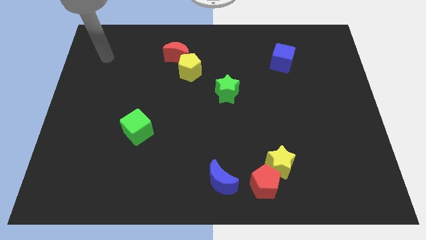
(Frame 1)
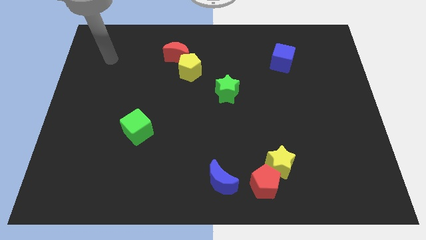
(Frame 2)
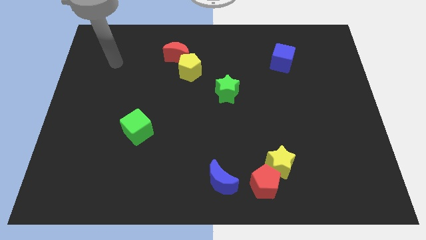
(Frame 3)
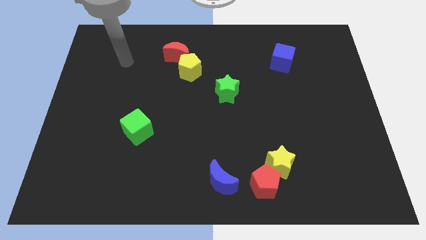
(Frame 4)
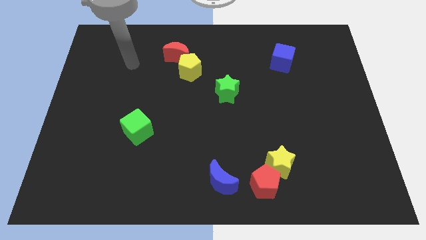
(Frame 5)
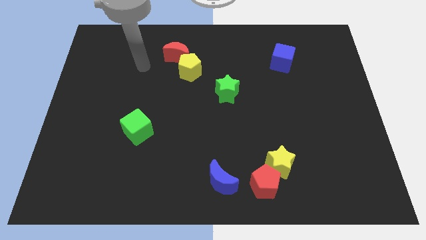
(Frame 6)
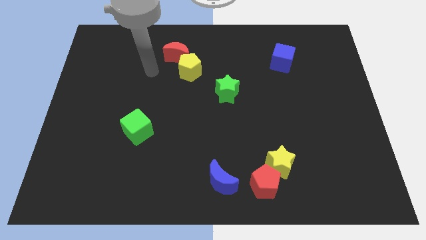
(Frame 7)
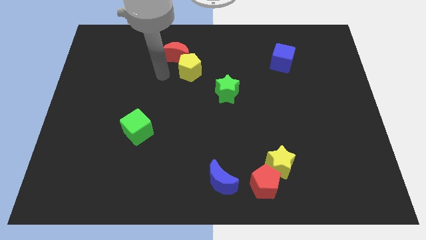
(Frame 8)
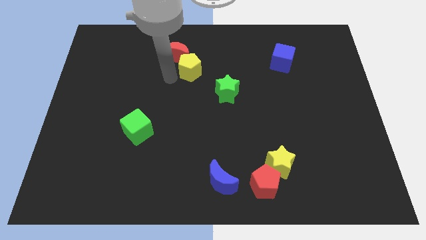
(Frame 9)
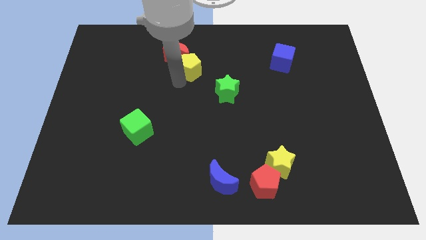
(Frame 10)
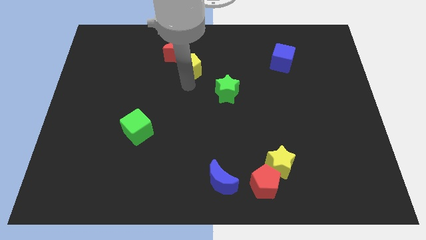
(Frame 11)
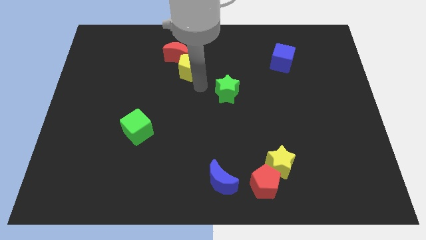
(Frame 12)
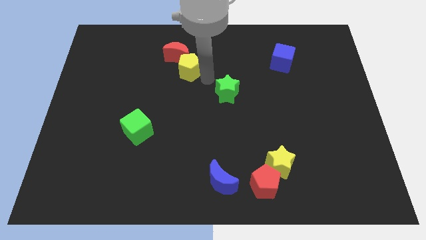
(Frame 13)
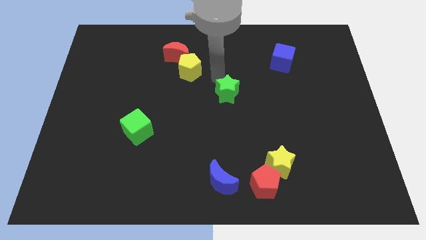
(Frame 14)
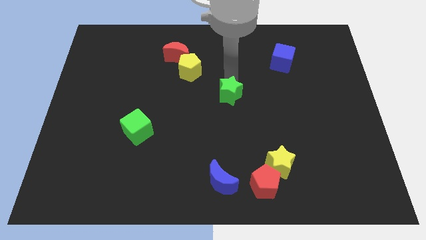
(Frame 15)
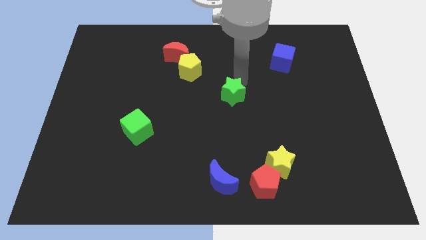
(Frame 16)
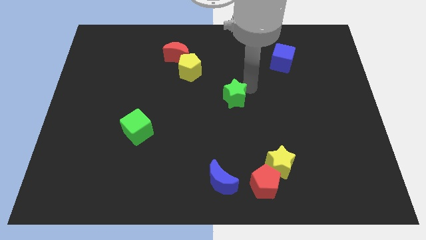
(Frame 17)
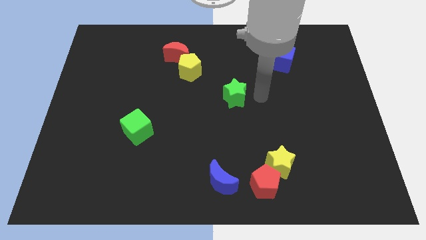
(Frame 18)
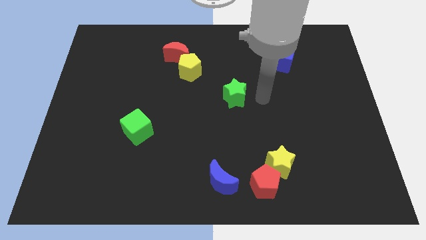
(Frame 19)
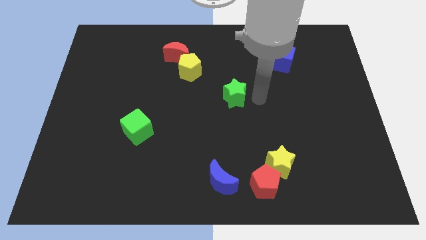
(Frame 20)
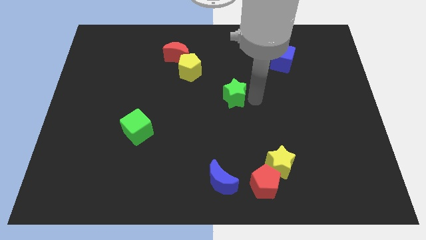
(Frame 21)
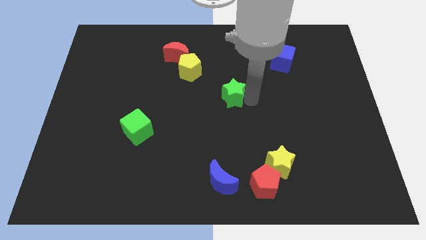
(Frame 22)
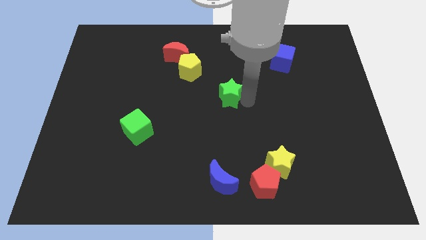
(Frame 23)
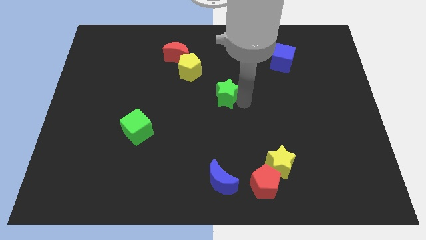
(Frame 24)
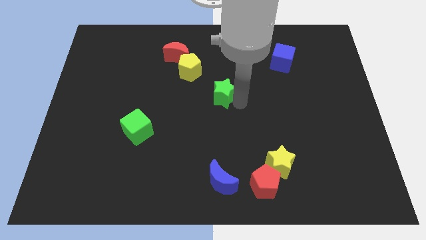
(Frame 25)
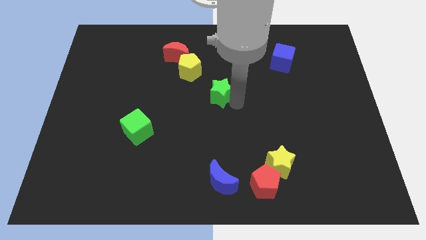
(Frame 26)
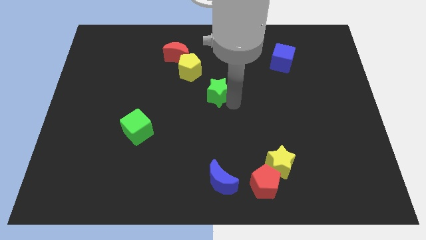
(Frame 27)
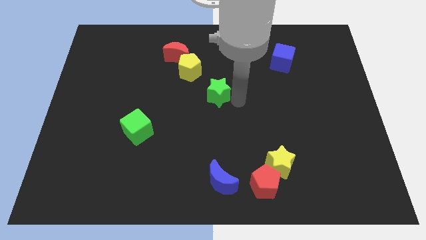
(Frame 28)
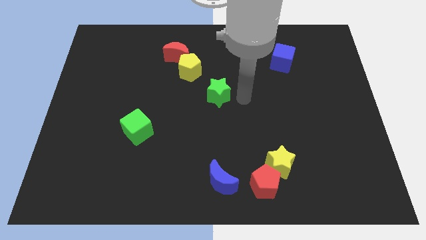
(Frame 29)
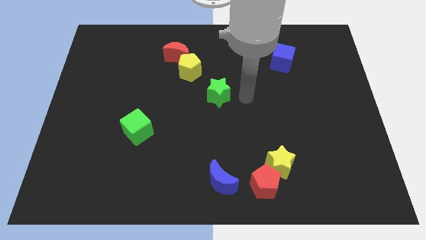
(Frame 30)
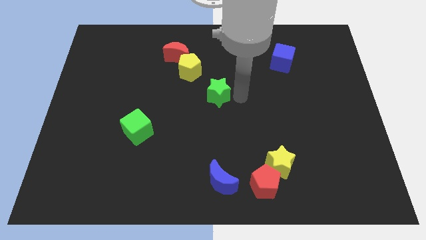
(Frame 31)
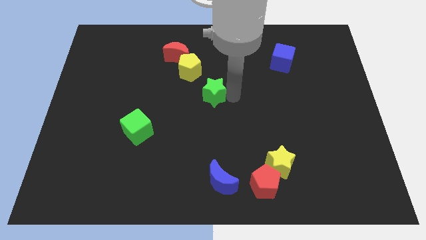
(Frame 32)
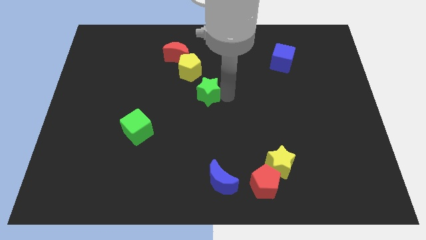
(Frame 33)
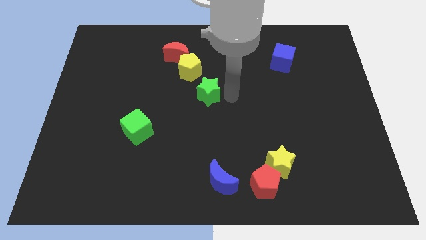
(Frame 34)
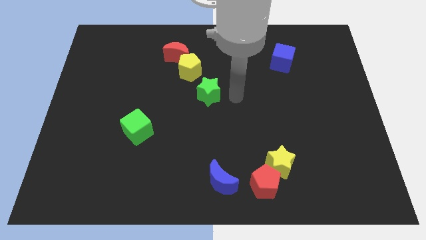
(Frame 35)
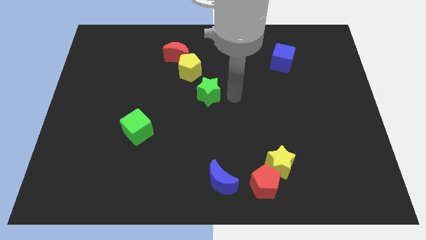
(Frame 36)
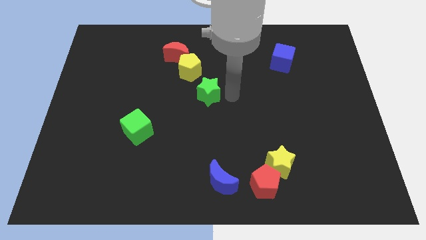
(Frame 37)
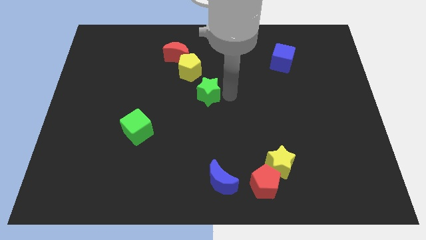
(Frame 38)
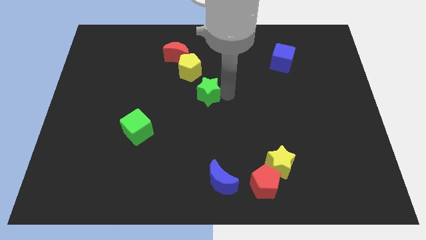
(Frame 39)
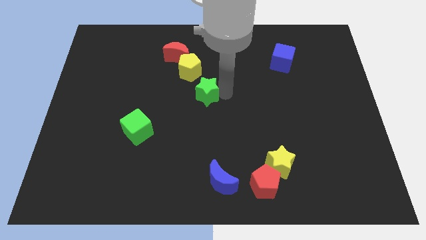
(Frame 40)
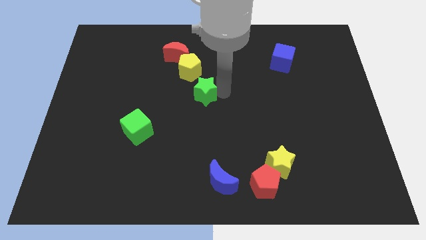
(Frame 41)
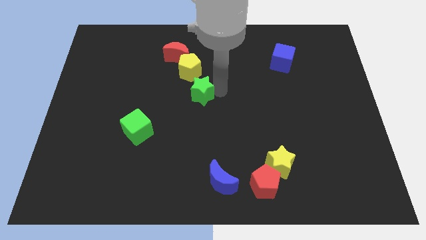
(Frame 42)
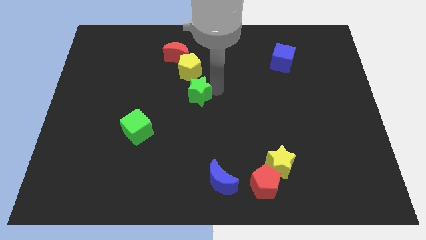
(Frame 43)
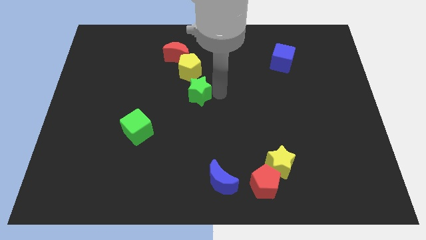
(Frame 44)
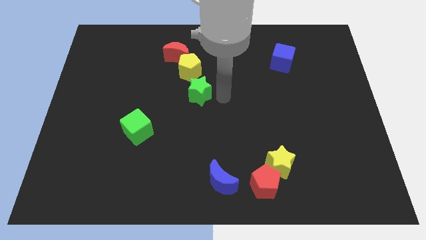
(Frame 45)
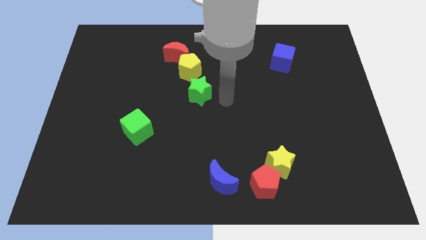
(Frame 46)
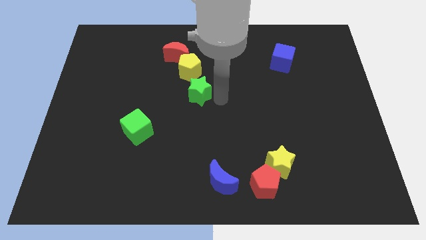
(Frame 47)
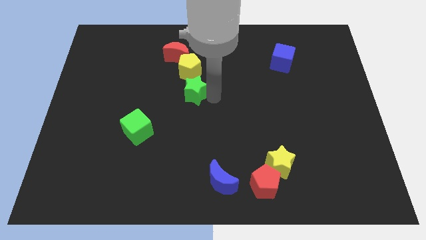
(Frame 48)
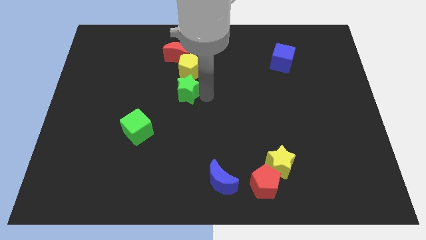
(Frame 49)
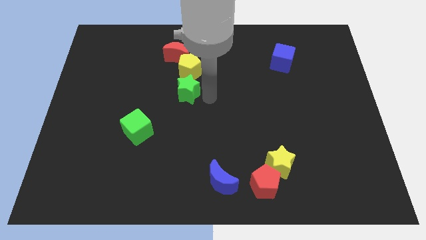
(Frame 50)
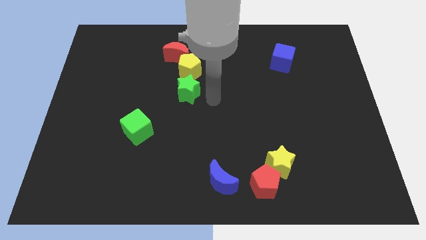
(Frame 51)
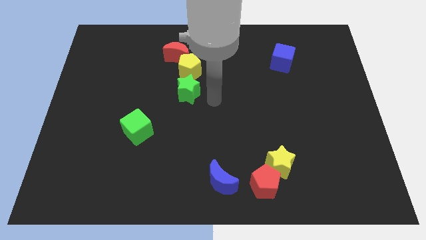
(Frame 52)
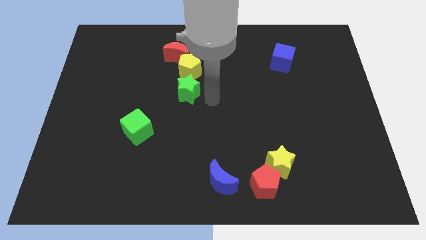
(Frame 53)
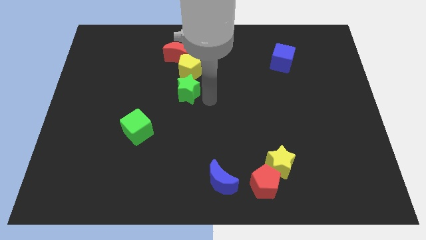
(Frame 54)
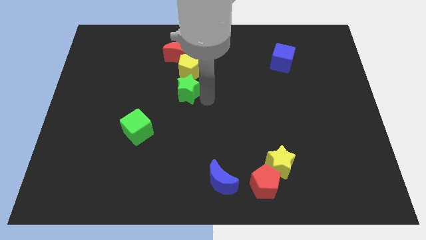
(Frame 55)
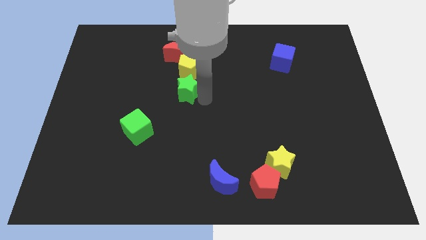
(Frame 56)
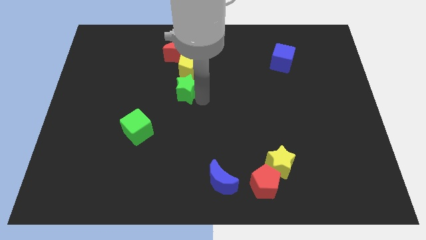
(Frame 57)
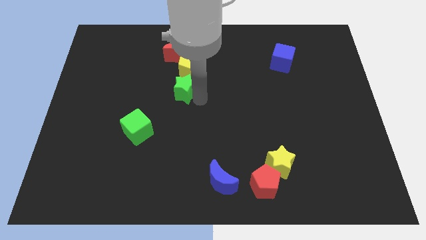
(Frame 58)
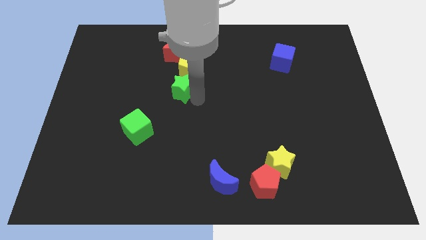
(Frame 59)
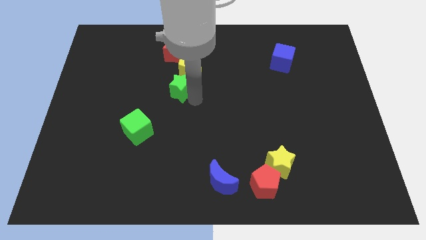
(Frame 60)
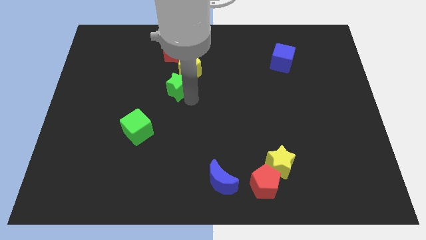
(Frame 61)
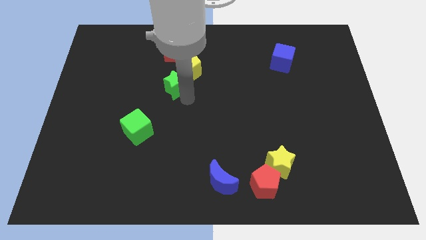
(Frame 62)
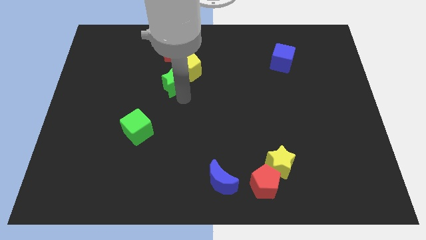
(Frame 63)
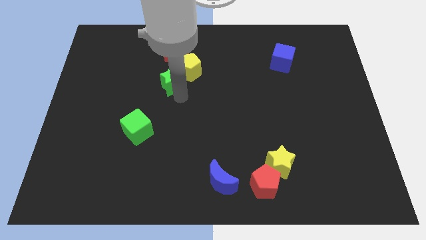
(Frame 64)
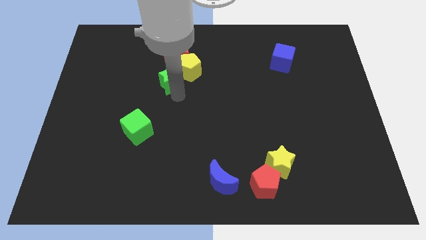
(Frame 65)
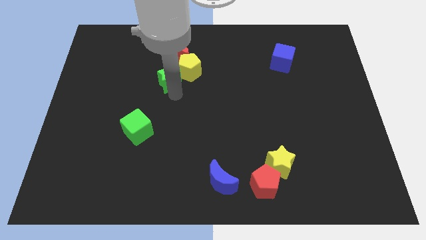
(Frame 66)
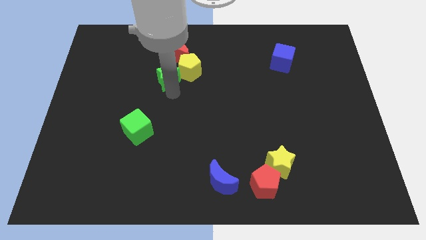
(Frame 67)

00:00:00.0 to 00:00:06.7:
put the green star to the bottom left side of the red moon
